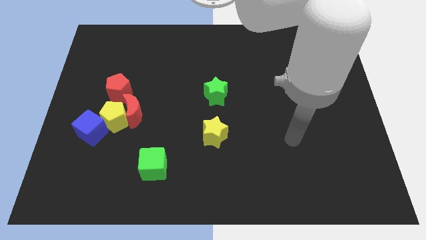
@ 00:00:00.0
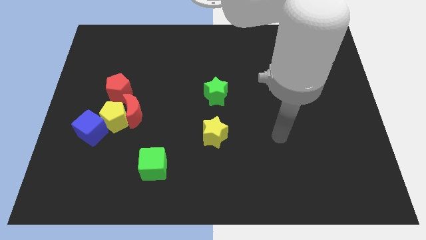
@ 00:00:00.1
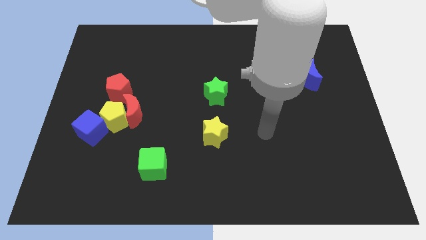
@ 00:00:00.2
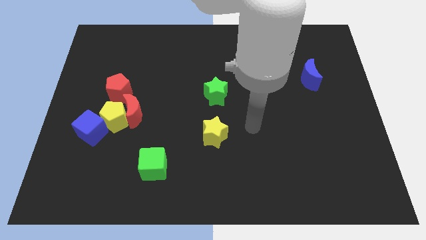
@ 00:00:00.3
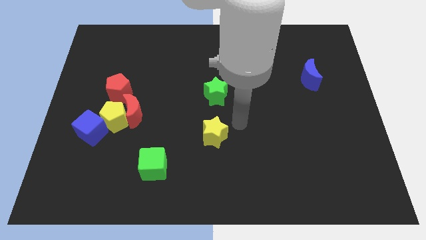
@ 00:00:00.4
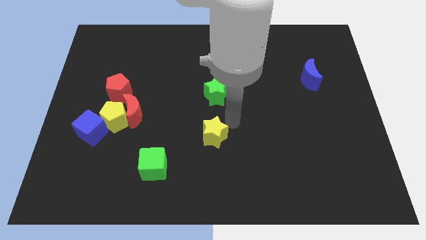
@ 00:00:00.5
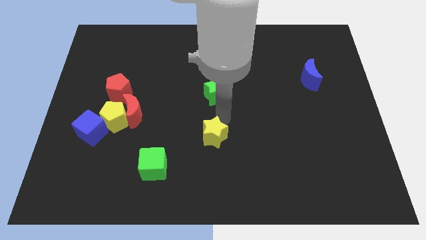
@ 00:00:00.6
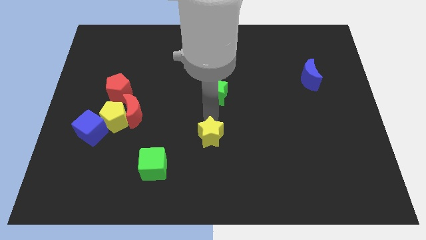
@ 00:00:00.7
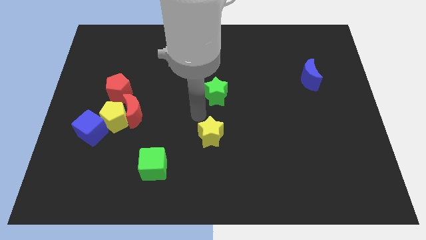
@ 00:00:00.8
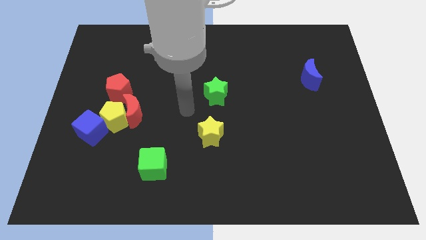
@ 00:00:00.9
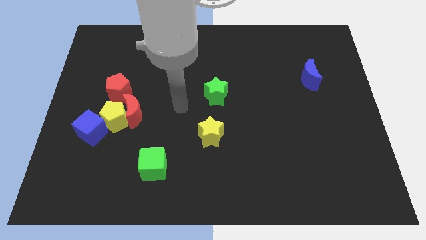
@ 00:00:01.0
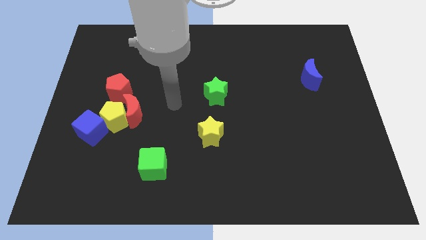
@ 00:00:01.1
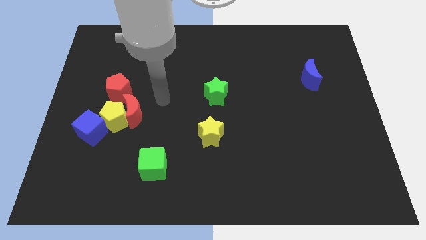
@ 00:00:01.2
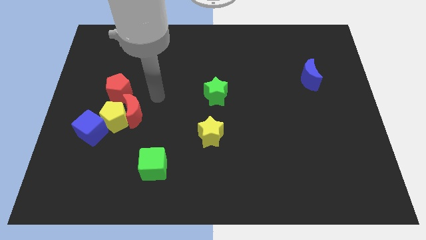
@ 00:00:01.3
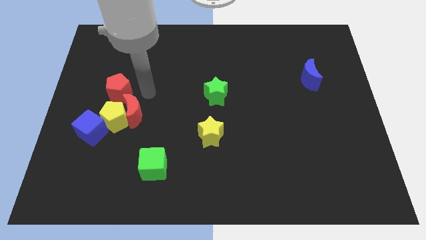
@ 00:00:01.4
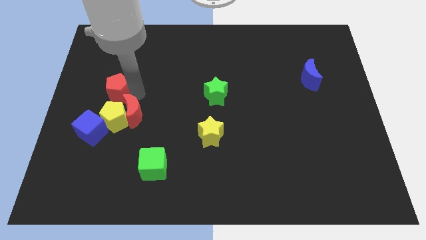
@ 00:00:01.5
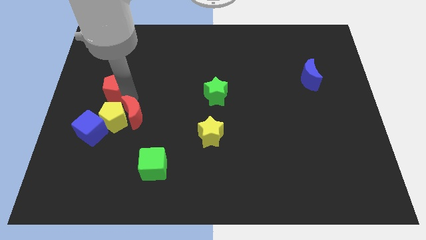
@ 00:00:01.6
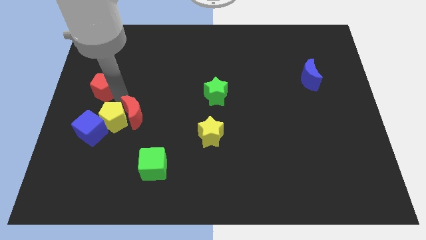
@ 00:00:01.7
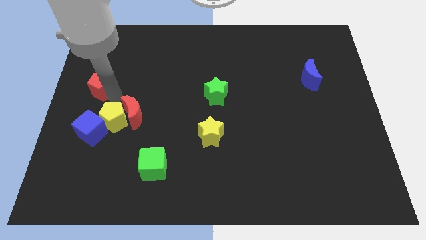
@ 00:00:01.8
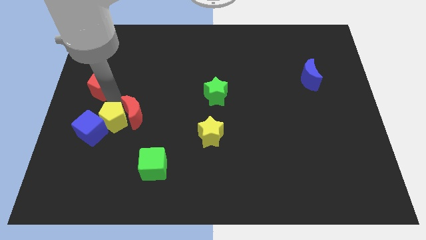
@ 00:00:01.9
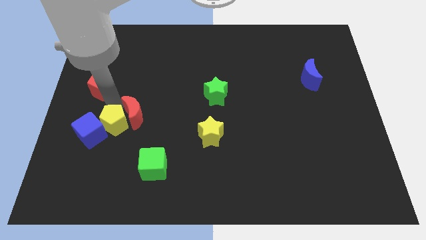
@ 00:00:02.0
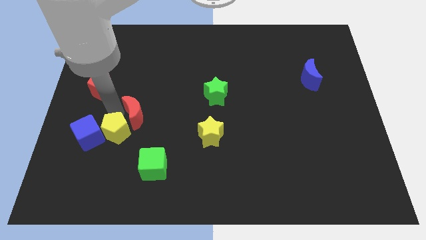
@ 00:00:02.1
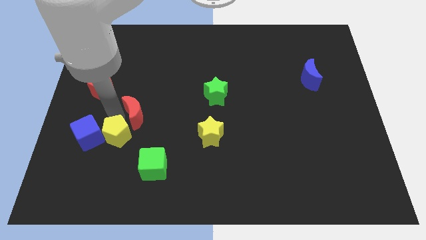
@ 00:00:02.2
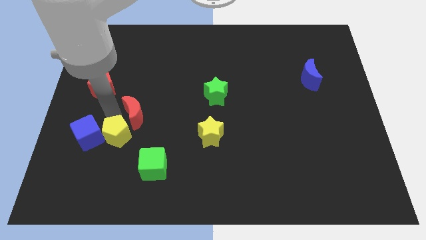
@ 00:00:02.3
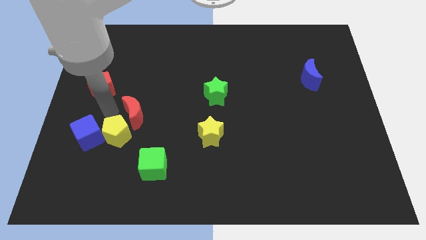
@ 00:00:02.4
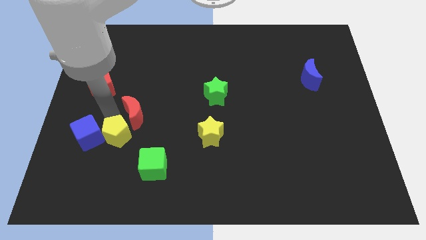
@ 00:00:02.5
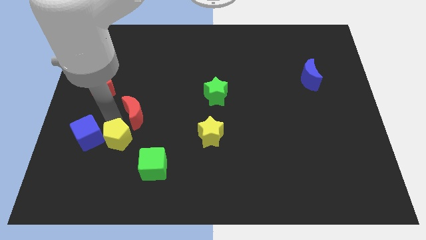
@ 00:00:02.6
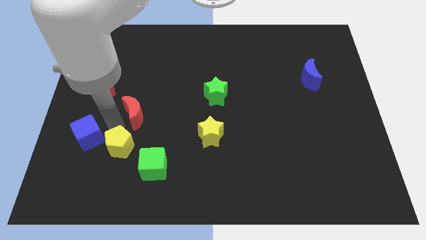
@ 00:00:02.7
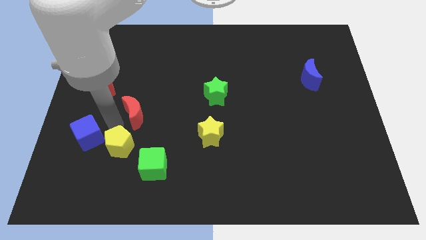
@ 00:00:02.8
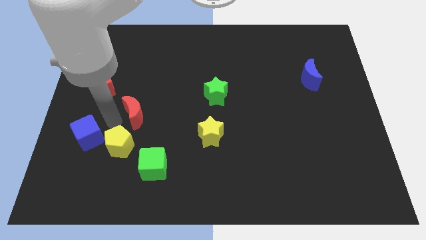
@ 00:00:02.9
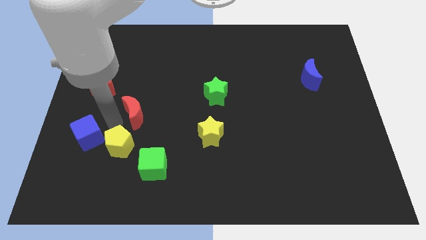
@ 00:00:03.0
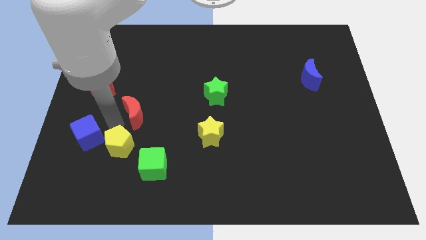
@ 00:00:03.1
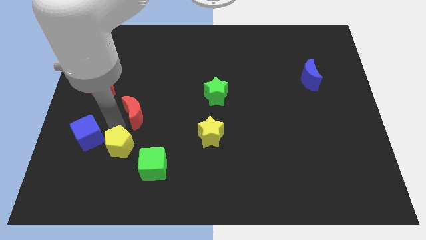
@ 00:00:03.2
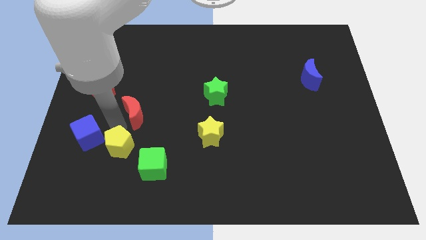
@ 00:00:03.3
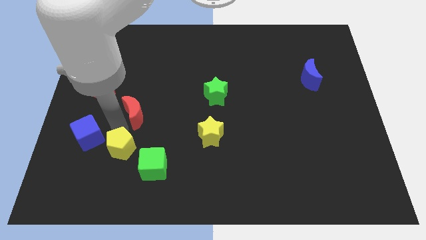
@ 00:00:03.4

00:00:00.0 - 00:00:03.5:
pull the yellow pentagon apart from the group

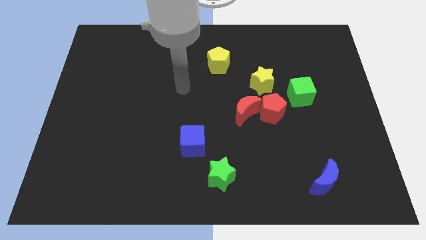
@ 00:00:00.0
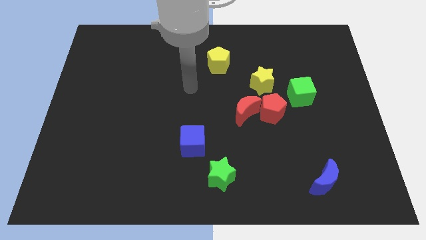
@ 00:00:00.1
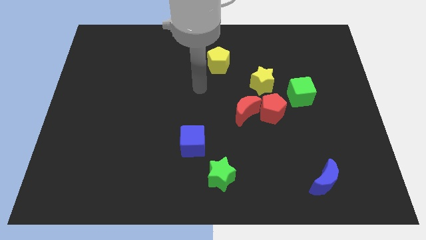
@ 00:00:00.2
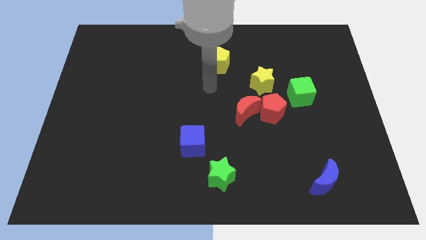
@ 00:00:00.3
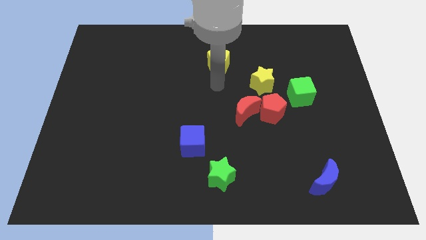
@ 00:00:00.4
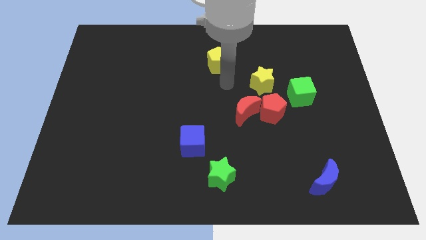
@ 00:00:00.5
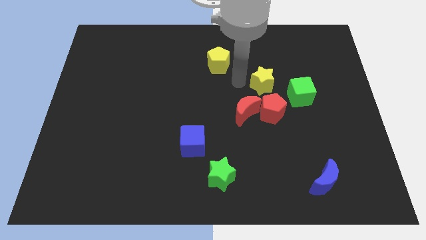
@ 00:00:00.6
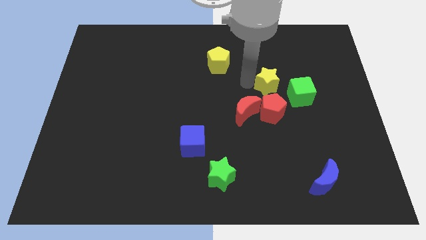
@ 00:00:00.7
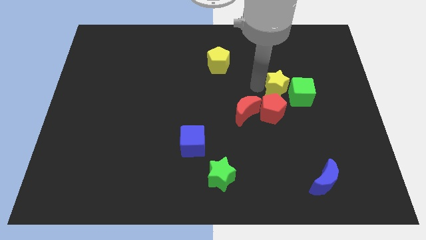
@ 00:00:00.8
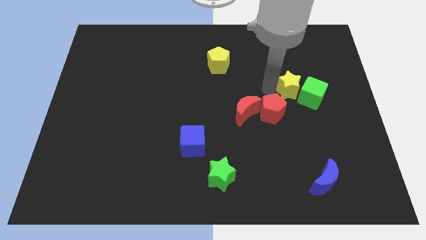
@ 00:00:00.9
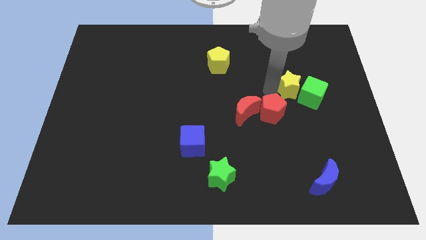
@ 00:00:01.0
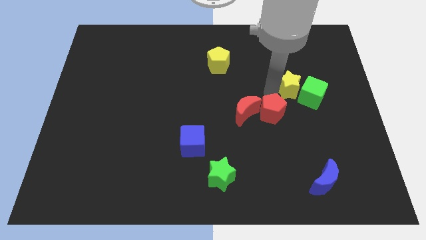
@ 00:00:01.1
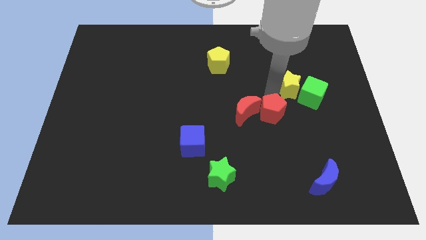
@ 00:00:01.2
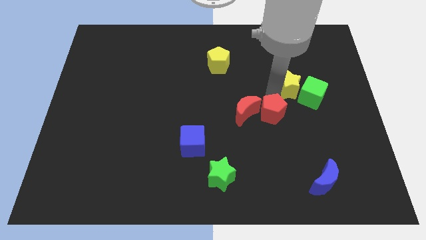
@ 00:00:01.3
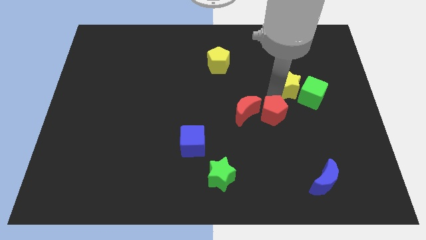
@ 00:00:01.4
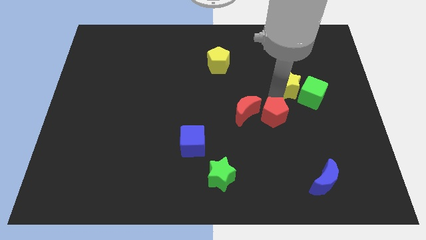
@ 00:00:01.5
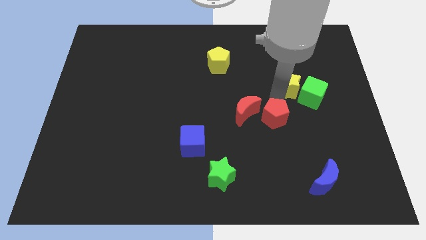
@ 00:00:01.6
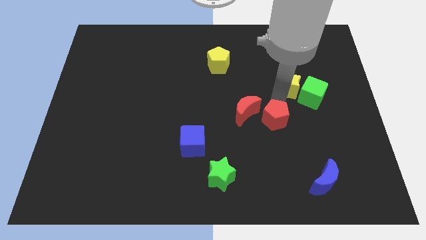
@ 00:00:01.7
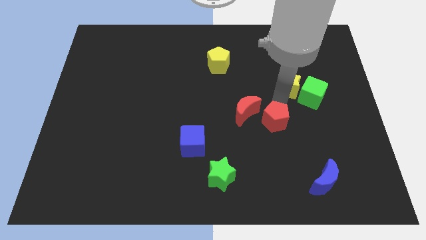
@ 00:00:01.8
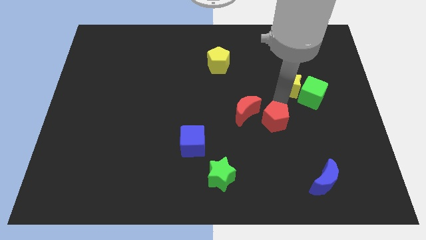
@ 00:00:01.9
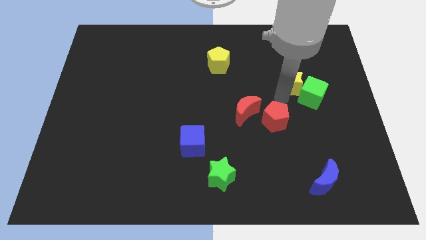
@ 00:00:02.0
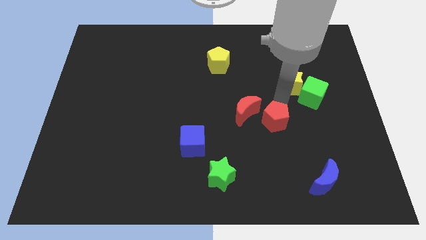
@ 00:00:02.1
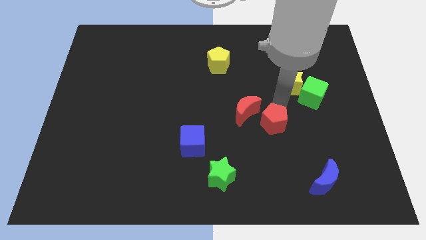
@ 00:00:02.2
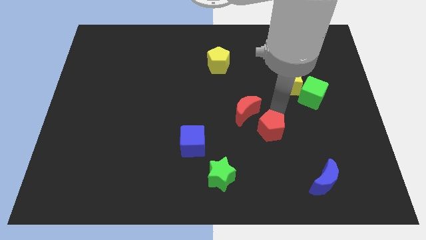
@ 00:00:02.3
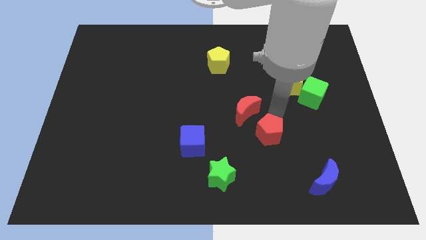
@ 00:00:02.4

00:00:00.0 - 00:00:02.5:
pull the red pentagon apart from the clump

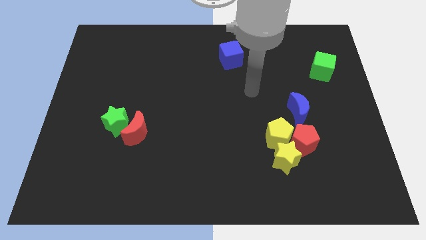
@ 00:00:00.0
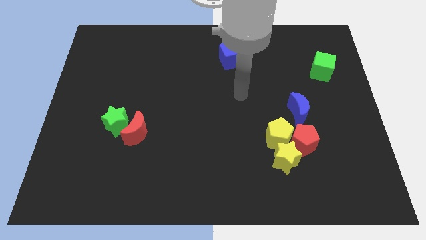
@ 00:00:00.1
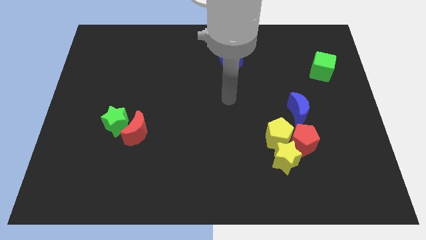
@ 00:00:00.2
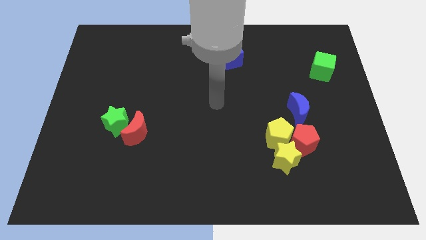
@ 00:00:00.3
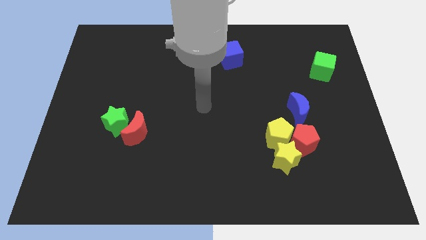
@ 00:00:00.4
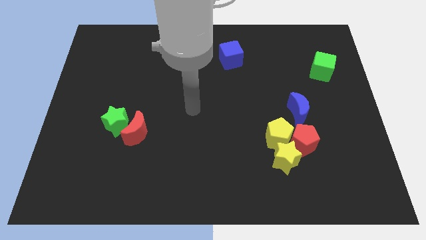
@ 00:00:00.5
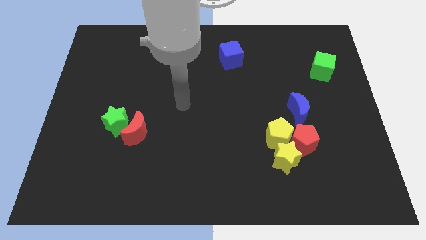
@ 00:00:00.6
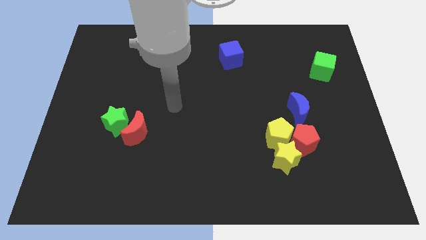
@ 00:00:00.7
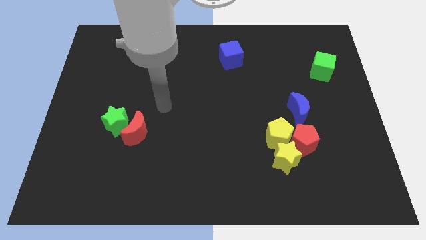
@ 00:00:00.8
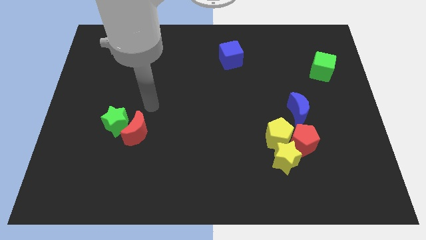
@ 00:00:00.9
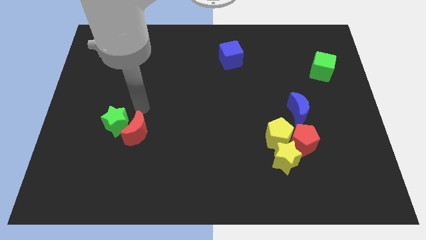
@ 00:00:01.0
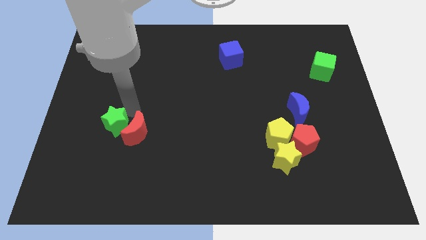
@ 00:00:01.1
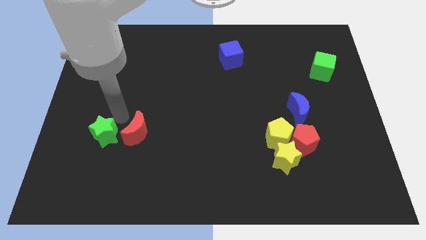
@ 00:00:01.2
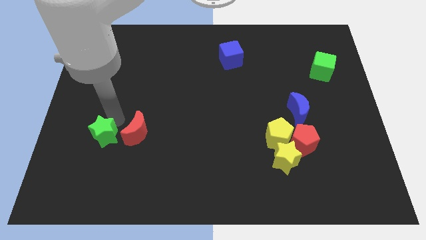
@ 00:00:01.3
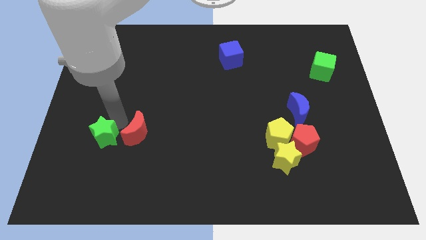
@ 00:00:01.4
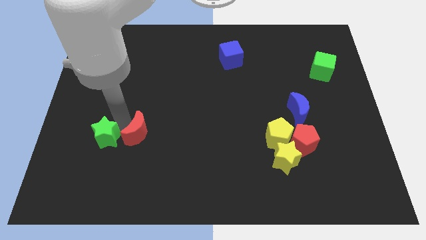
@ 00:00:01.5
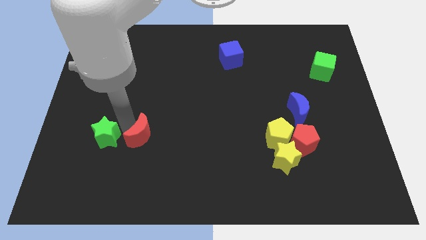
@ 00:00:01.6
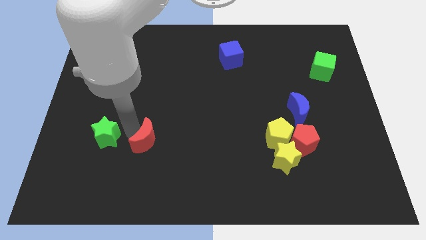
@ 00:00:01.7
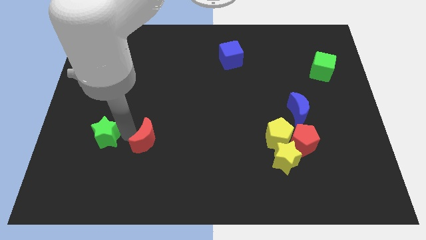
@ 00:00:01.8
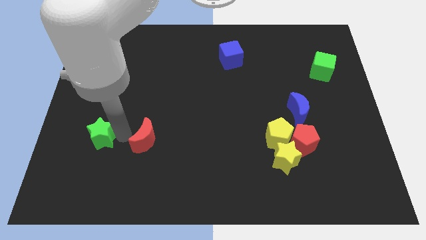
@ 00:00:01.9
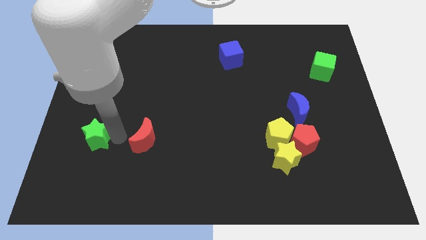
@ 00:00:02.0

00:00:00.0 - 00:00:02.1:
separate the red moon from the green star

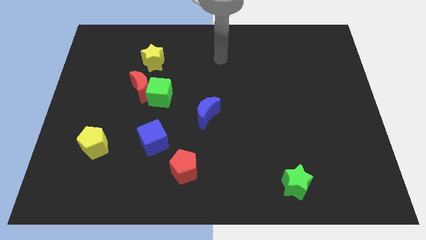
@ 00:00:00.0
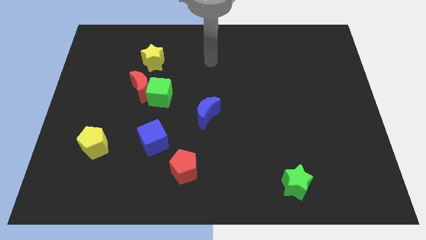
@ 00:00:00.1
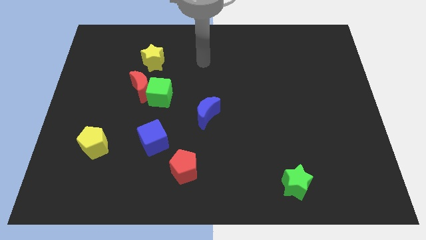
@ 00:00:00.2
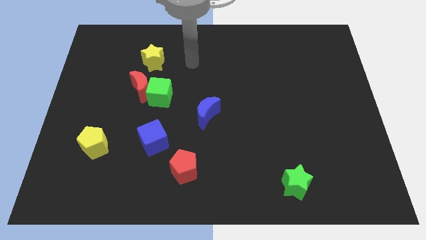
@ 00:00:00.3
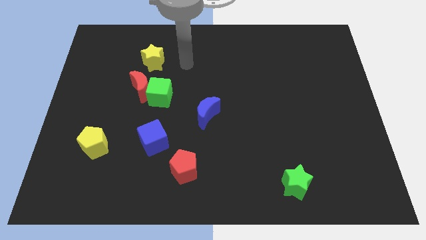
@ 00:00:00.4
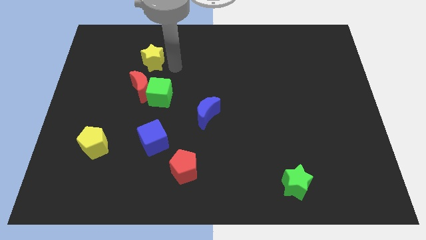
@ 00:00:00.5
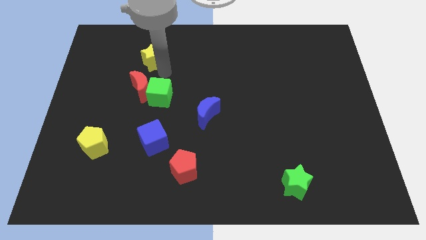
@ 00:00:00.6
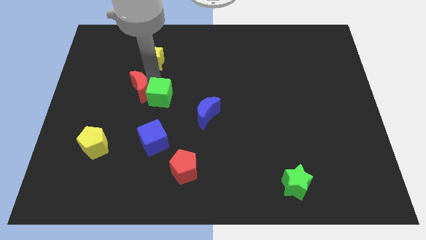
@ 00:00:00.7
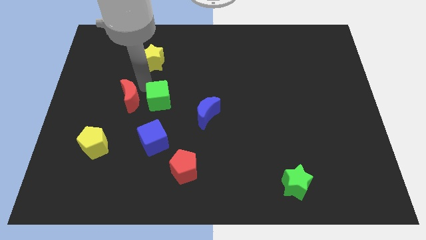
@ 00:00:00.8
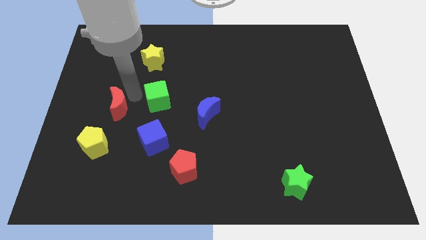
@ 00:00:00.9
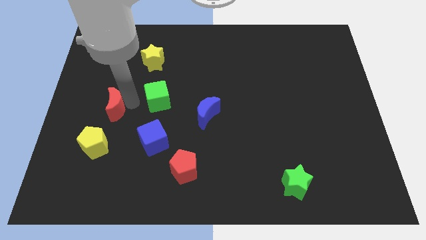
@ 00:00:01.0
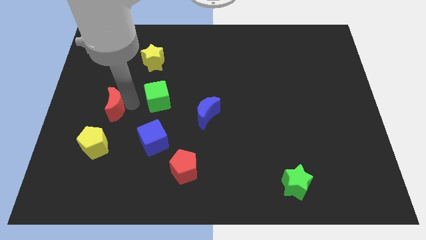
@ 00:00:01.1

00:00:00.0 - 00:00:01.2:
pull the green cube apart from the red moon
